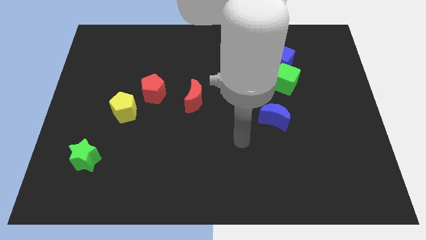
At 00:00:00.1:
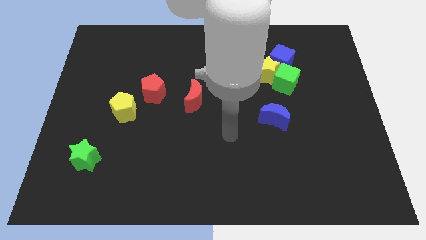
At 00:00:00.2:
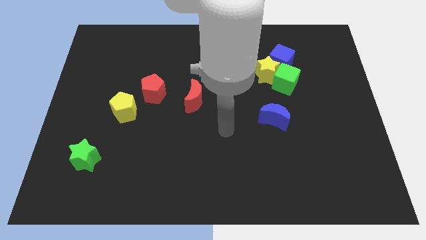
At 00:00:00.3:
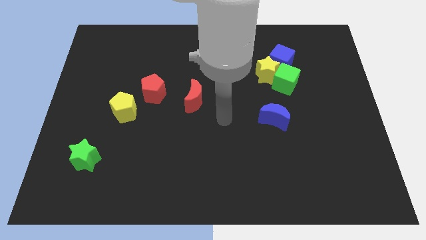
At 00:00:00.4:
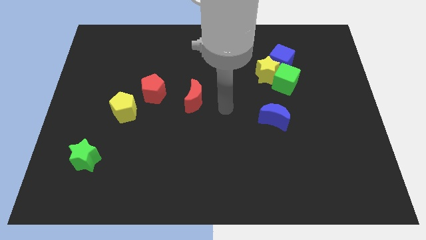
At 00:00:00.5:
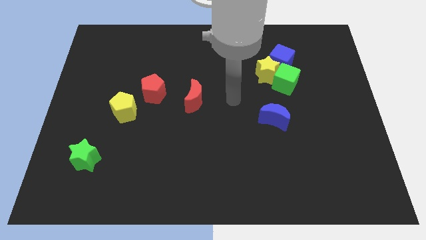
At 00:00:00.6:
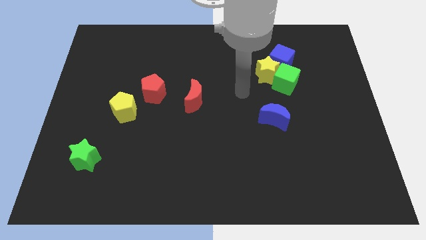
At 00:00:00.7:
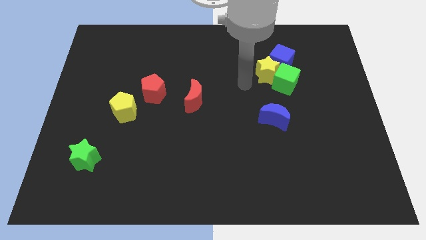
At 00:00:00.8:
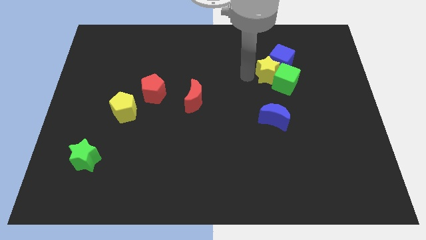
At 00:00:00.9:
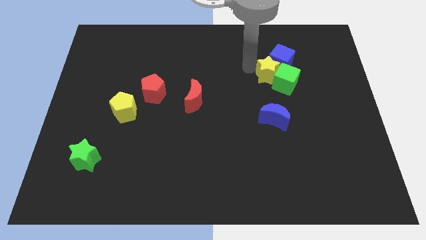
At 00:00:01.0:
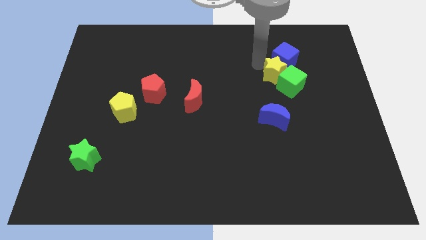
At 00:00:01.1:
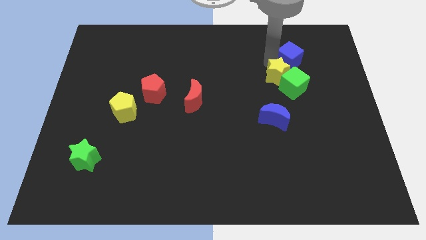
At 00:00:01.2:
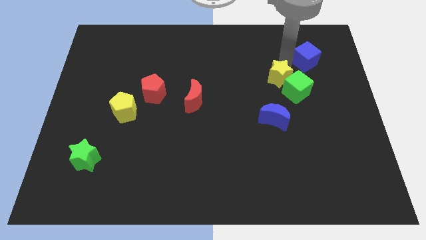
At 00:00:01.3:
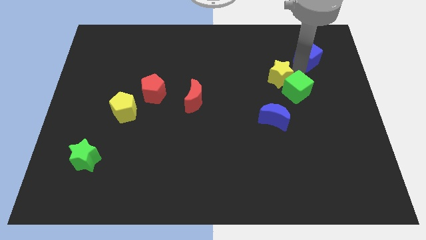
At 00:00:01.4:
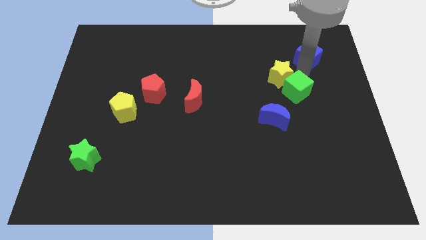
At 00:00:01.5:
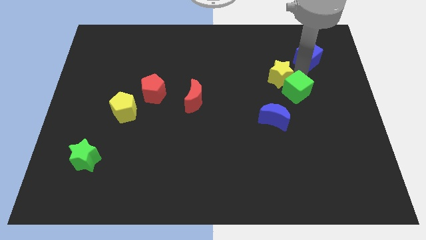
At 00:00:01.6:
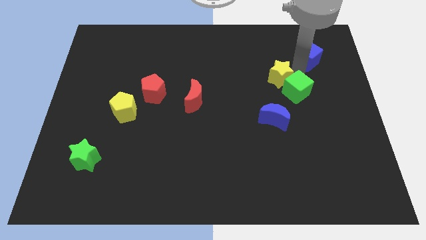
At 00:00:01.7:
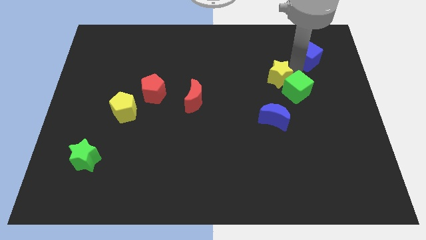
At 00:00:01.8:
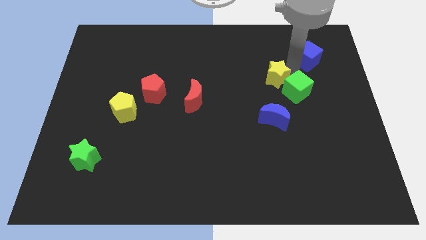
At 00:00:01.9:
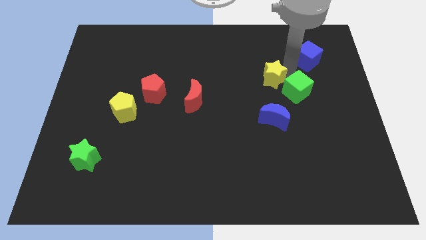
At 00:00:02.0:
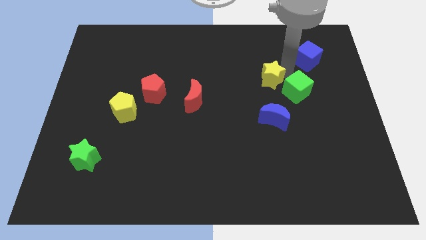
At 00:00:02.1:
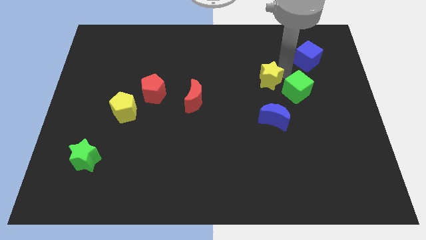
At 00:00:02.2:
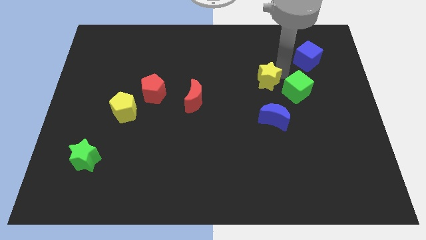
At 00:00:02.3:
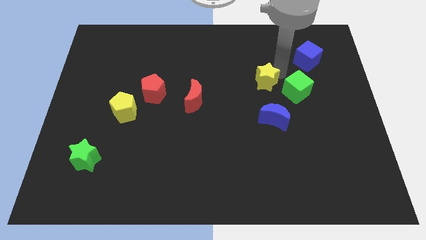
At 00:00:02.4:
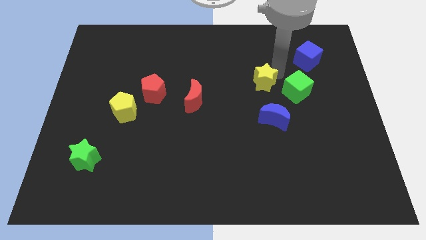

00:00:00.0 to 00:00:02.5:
separate the yellow star from the green cube and blue cube

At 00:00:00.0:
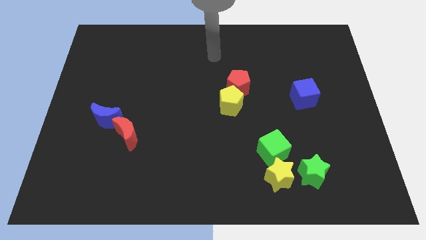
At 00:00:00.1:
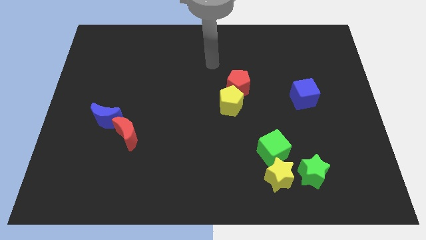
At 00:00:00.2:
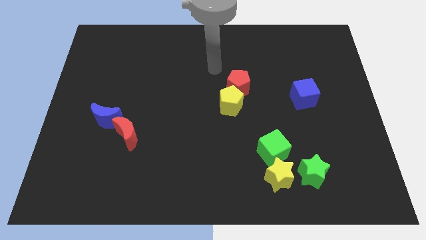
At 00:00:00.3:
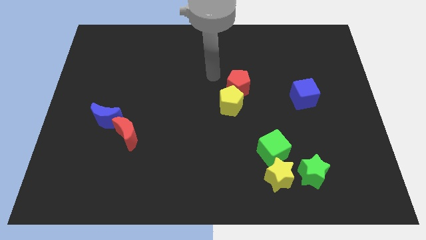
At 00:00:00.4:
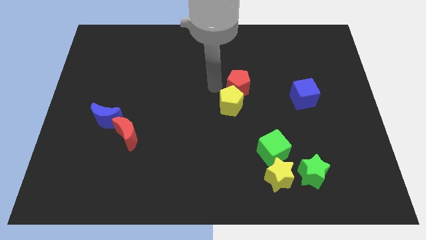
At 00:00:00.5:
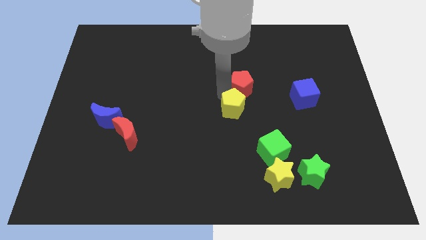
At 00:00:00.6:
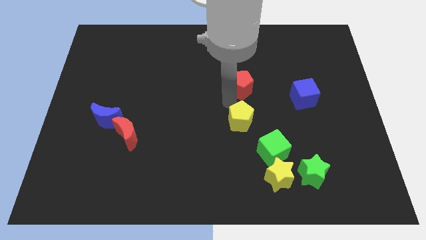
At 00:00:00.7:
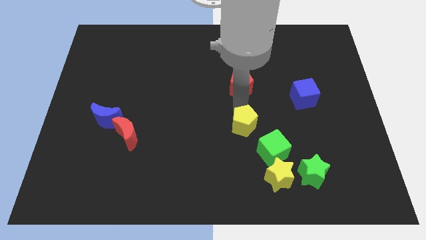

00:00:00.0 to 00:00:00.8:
separate the red pentagon from the yellow pentagon

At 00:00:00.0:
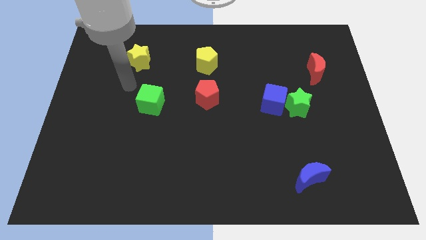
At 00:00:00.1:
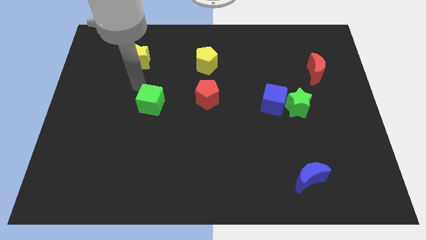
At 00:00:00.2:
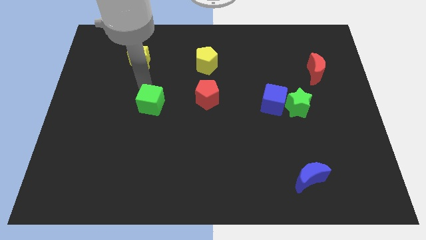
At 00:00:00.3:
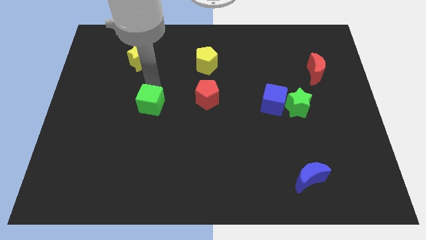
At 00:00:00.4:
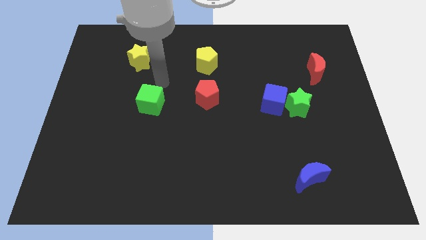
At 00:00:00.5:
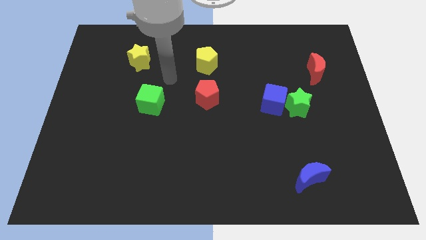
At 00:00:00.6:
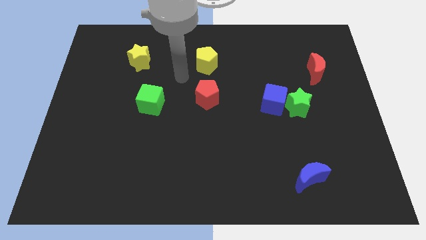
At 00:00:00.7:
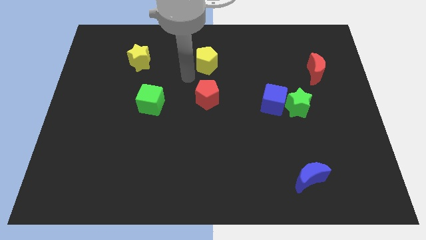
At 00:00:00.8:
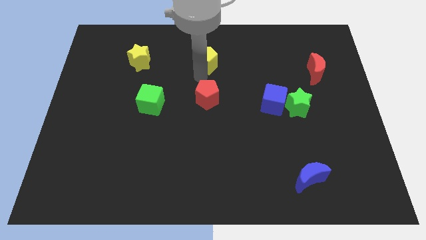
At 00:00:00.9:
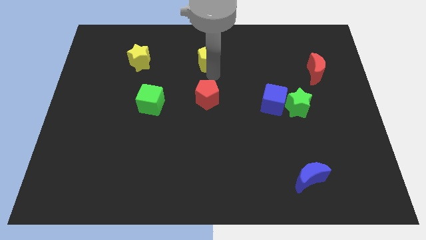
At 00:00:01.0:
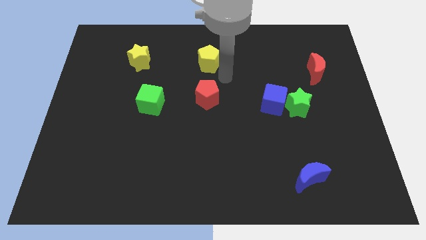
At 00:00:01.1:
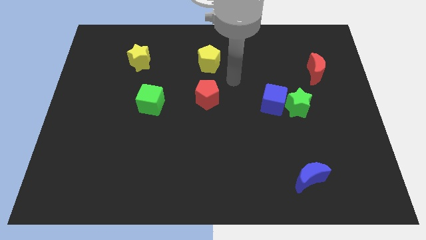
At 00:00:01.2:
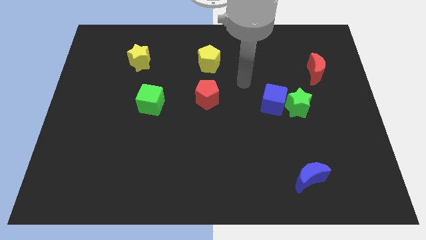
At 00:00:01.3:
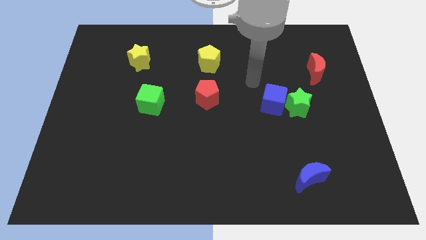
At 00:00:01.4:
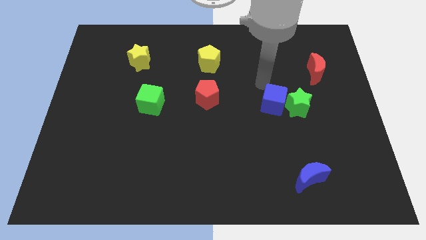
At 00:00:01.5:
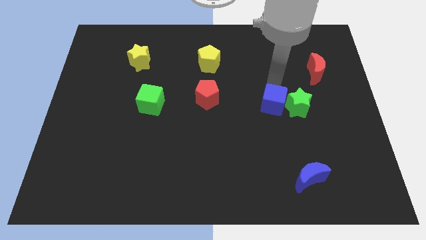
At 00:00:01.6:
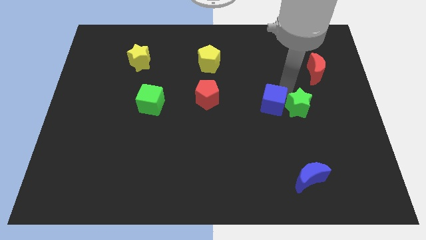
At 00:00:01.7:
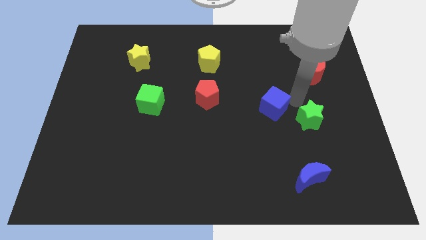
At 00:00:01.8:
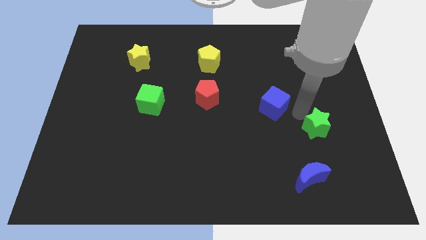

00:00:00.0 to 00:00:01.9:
pull the blue cube apart from the green star

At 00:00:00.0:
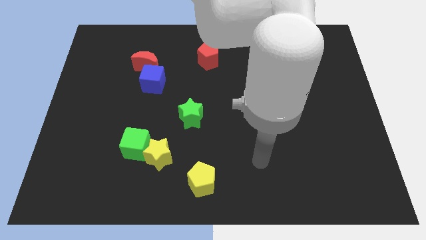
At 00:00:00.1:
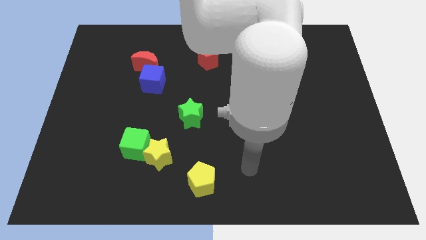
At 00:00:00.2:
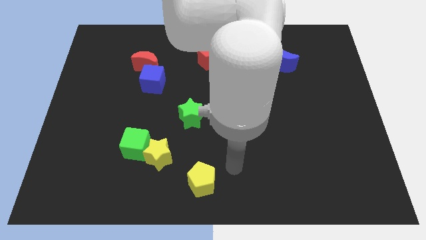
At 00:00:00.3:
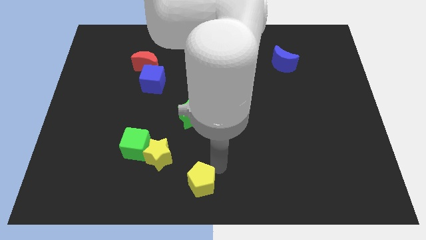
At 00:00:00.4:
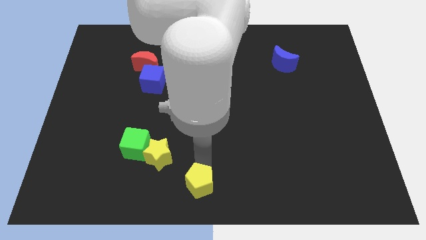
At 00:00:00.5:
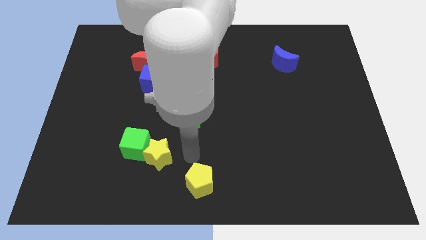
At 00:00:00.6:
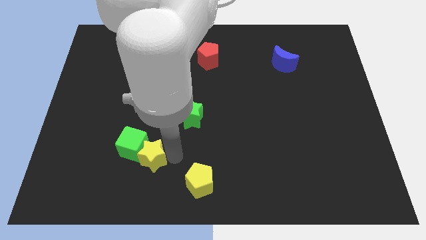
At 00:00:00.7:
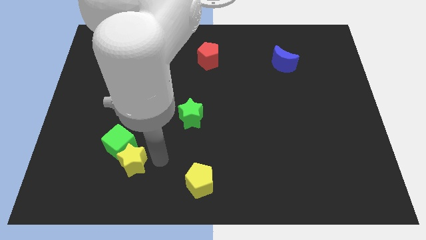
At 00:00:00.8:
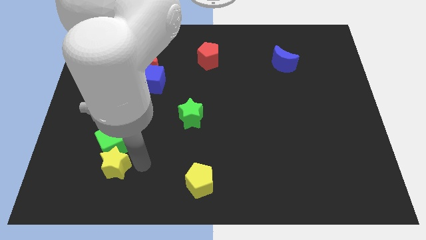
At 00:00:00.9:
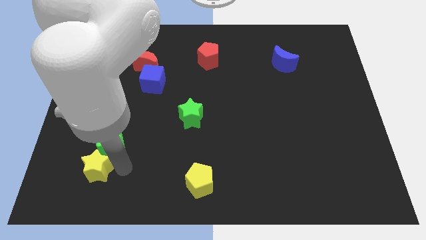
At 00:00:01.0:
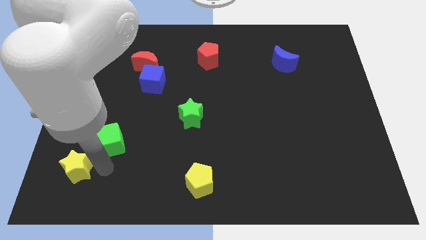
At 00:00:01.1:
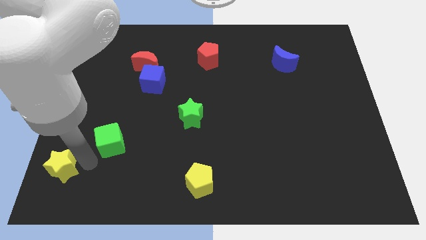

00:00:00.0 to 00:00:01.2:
pull the green cube apart from the yellow star

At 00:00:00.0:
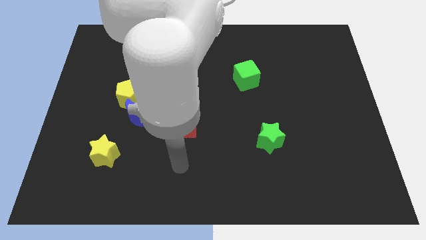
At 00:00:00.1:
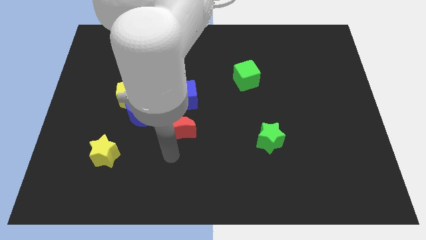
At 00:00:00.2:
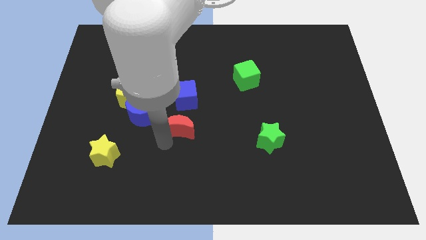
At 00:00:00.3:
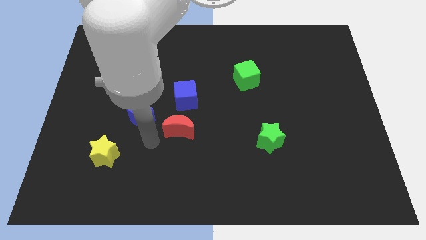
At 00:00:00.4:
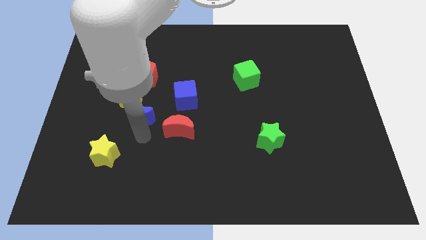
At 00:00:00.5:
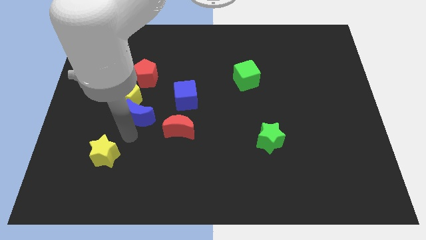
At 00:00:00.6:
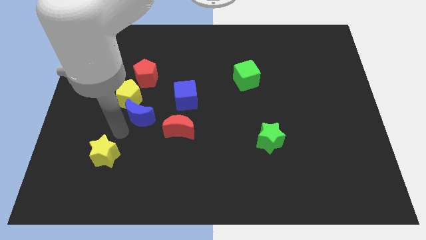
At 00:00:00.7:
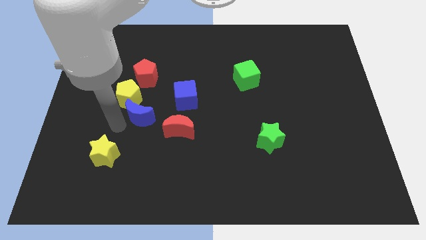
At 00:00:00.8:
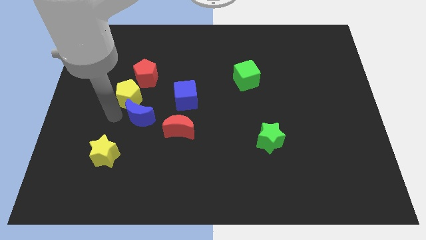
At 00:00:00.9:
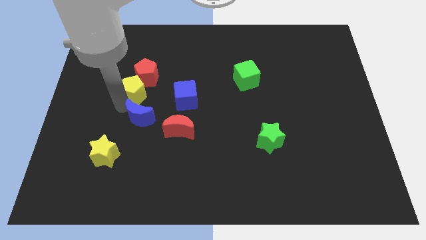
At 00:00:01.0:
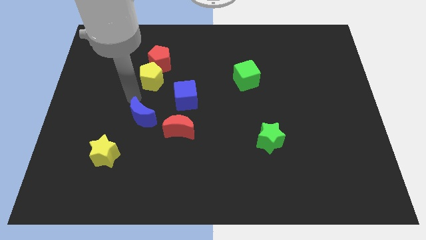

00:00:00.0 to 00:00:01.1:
pull the blue moon apart from the yellow pentagon

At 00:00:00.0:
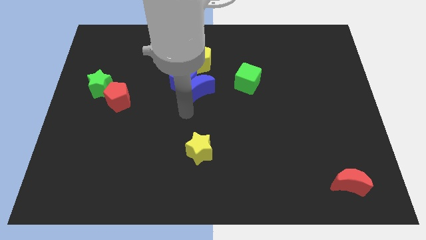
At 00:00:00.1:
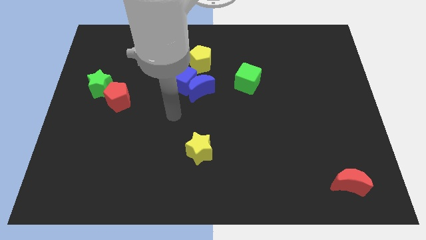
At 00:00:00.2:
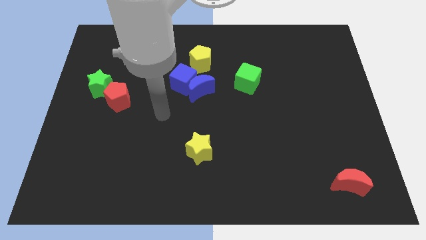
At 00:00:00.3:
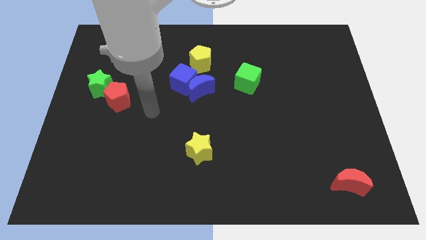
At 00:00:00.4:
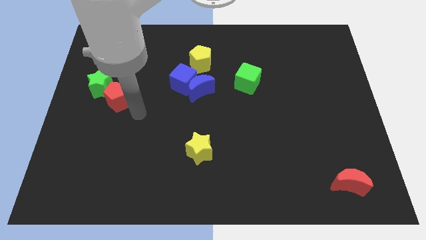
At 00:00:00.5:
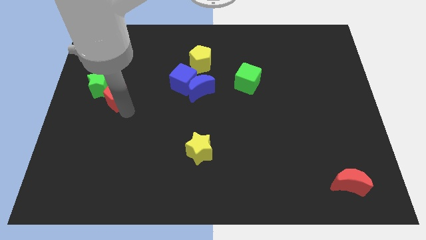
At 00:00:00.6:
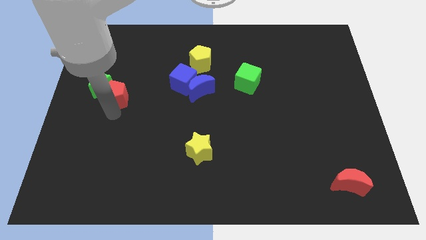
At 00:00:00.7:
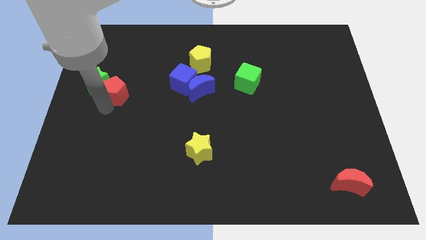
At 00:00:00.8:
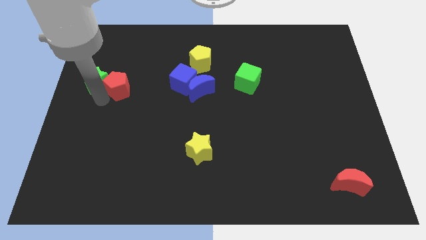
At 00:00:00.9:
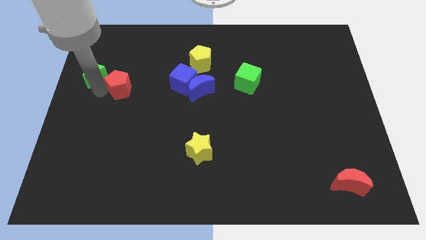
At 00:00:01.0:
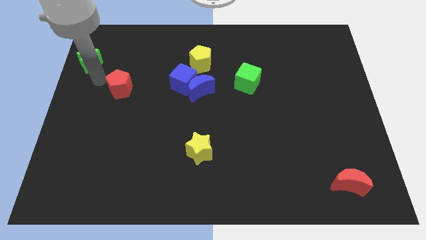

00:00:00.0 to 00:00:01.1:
move the red pentagon away from the green star

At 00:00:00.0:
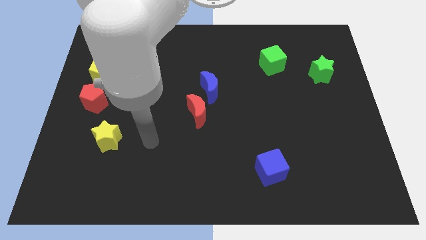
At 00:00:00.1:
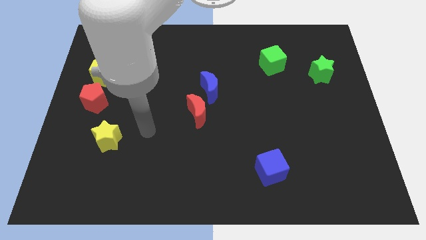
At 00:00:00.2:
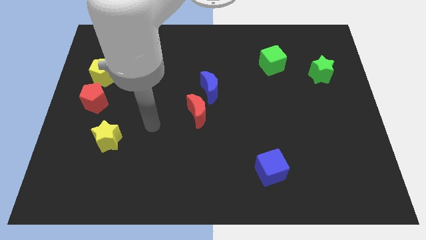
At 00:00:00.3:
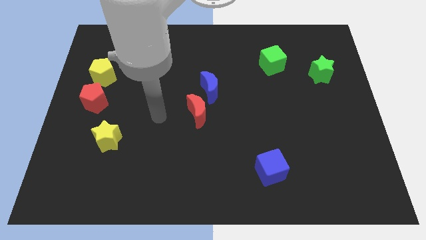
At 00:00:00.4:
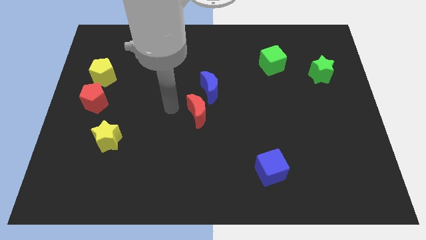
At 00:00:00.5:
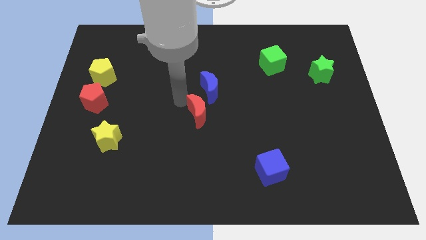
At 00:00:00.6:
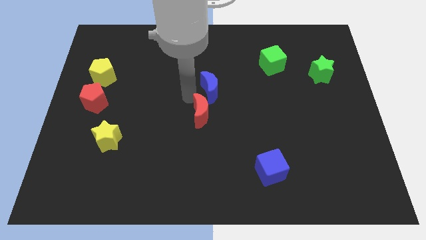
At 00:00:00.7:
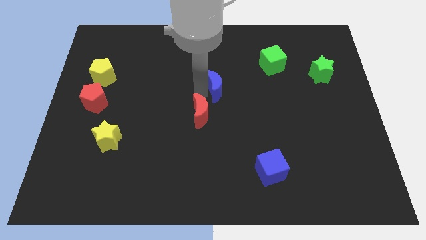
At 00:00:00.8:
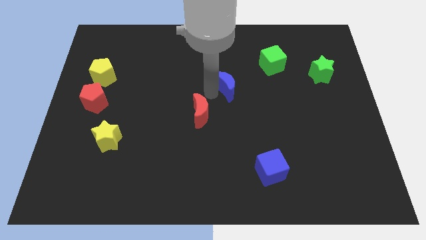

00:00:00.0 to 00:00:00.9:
separate the red moon from the blue moon
